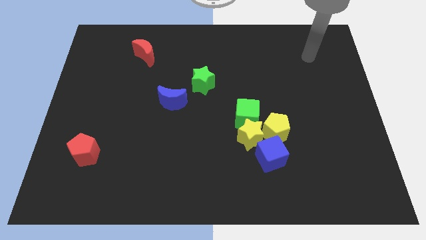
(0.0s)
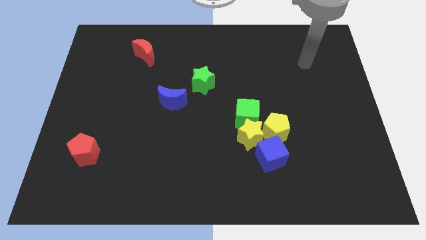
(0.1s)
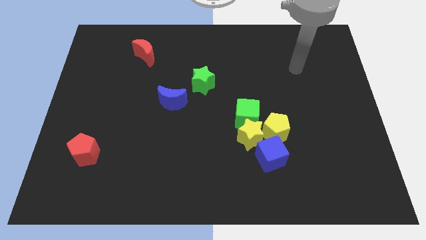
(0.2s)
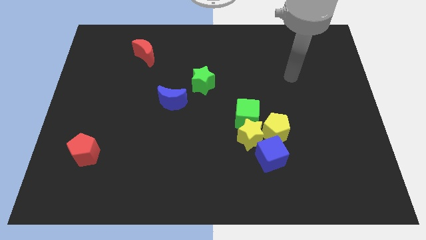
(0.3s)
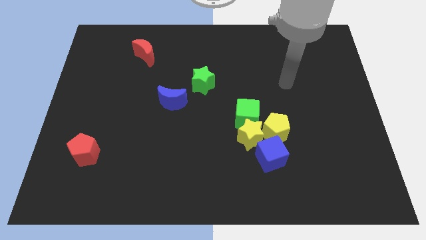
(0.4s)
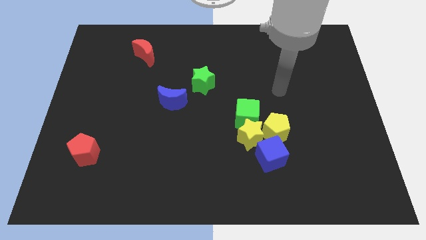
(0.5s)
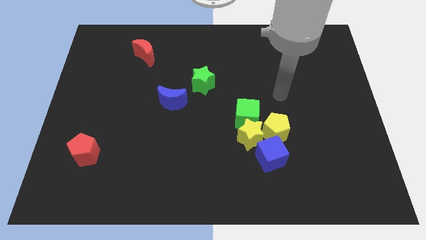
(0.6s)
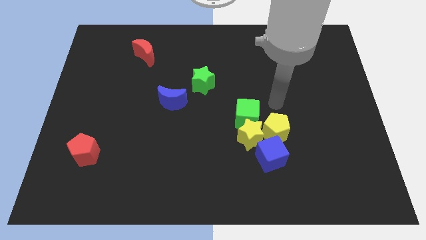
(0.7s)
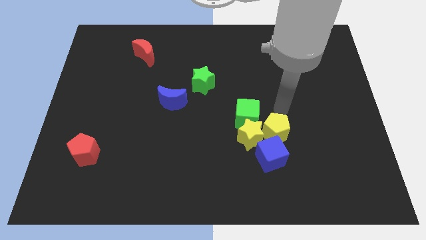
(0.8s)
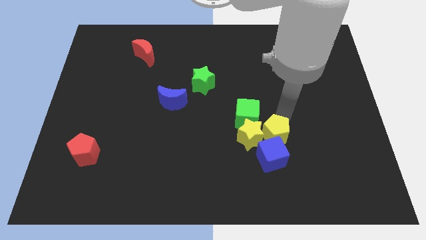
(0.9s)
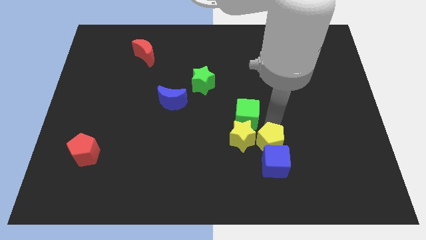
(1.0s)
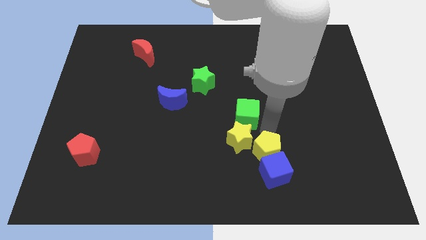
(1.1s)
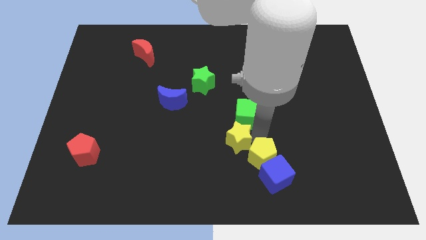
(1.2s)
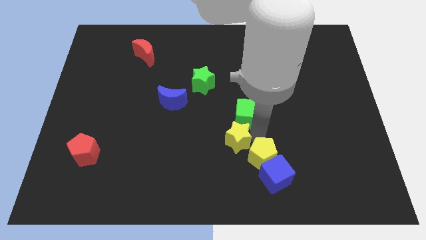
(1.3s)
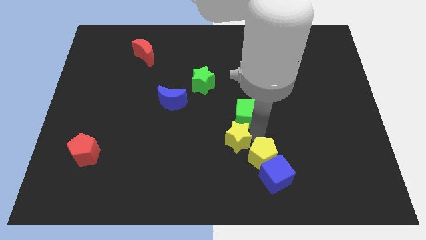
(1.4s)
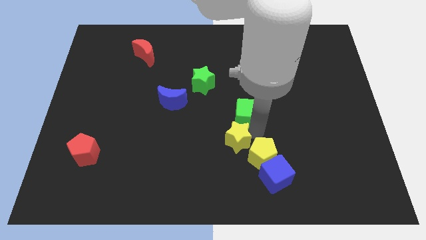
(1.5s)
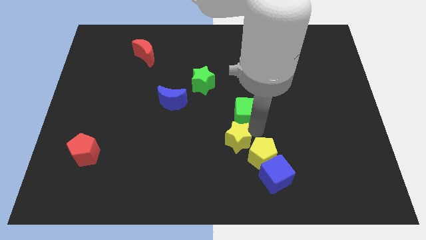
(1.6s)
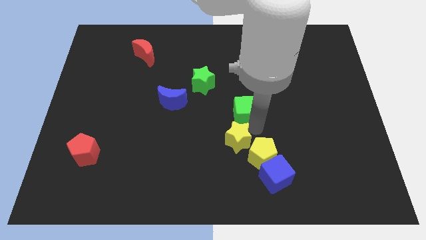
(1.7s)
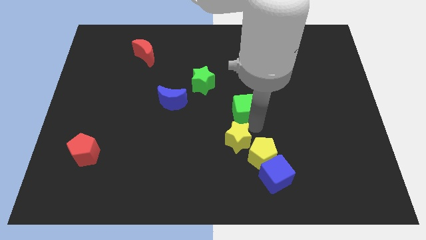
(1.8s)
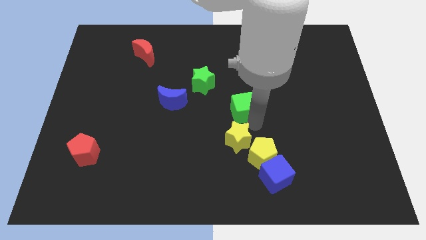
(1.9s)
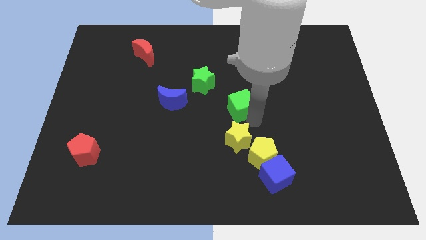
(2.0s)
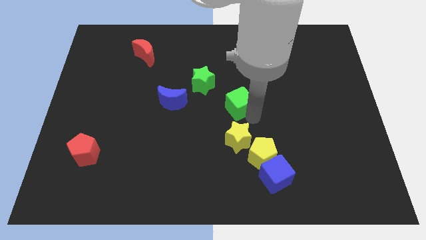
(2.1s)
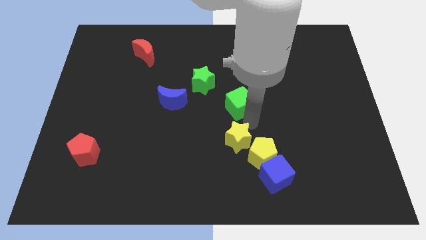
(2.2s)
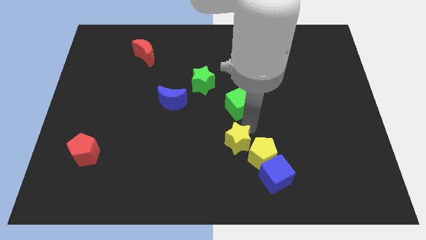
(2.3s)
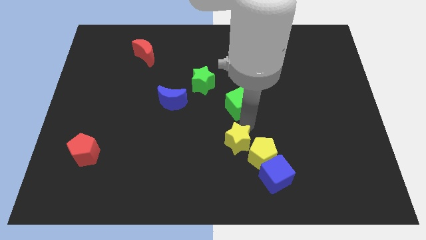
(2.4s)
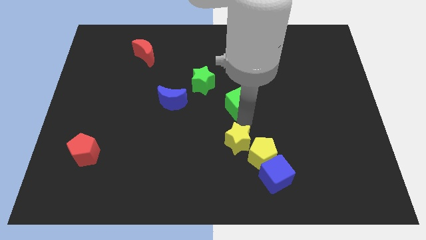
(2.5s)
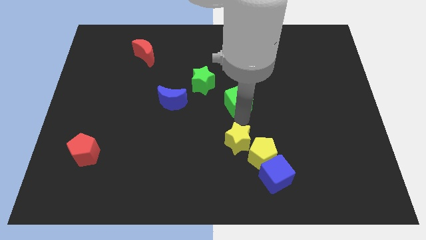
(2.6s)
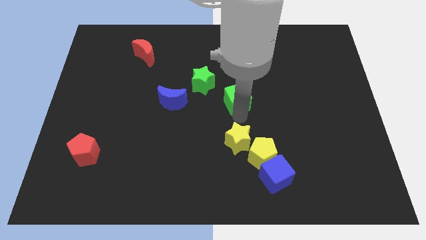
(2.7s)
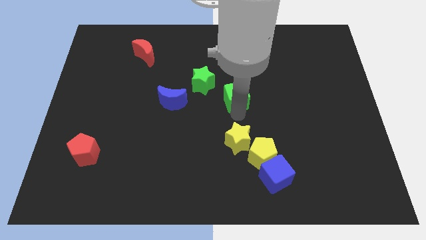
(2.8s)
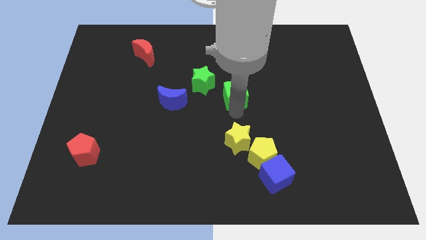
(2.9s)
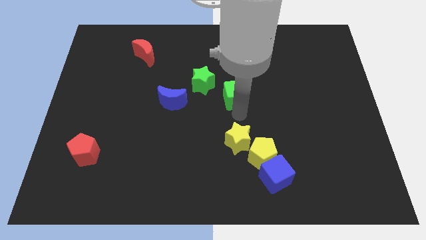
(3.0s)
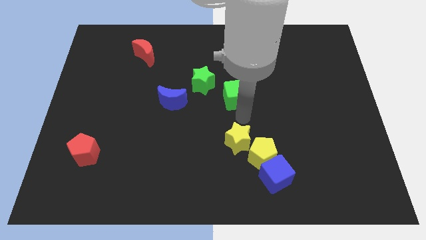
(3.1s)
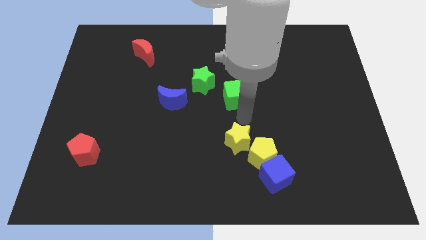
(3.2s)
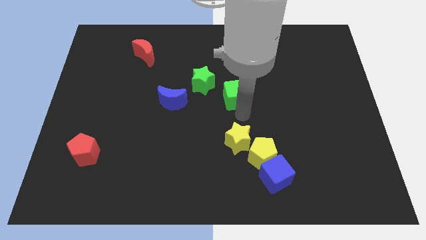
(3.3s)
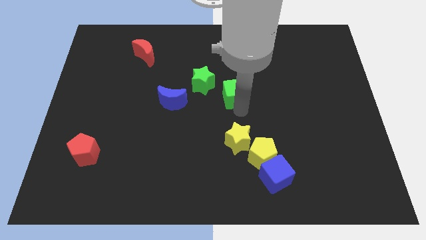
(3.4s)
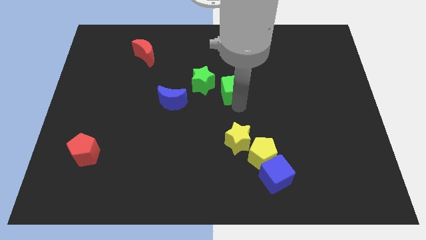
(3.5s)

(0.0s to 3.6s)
slightly push the green cube upwards and left diagonally

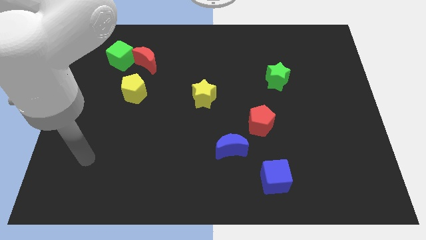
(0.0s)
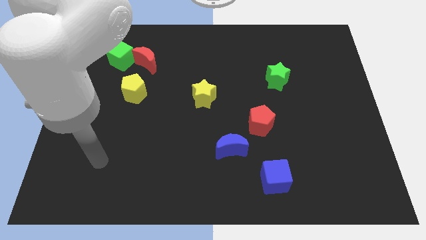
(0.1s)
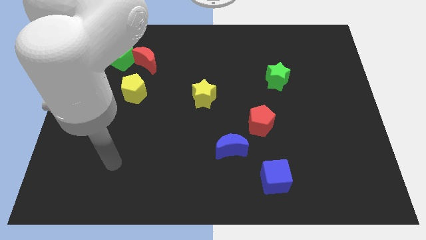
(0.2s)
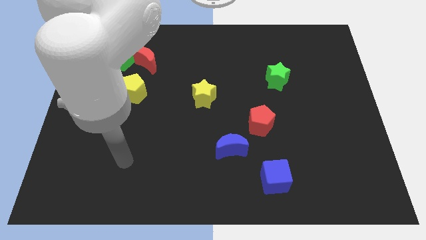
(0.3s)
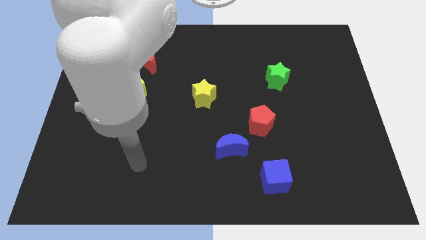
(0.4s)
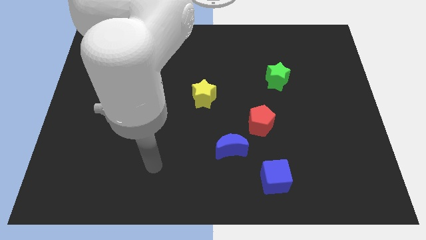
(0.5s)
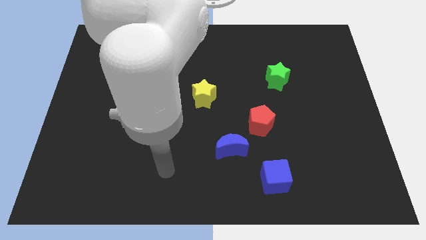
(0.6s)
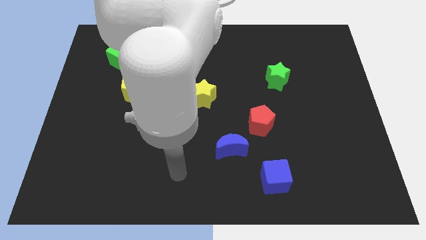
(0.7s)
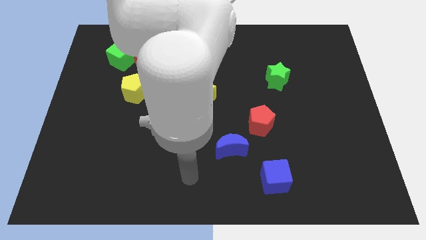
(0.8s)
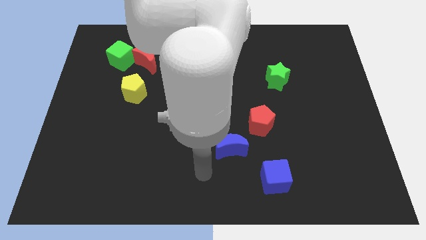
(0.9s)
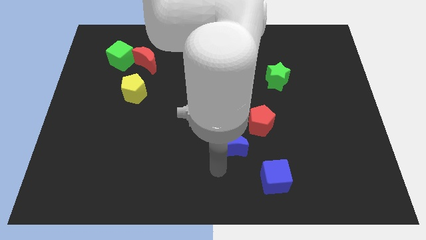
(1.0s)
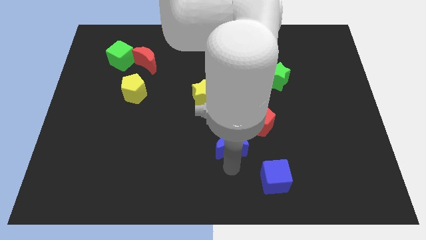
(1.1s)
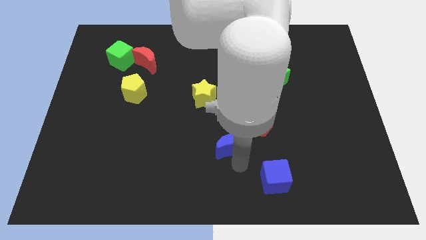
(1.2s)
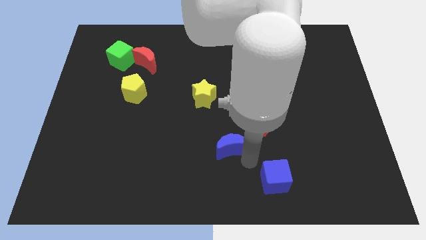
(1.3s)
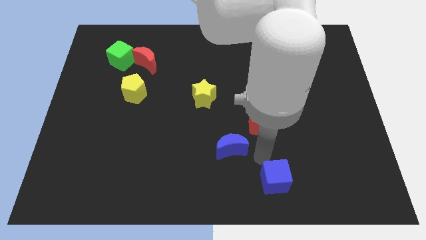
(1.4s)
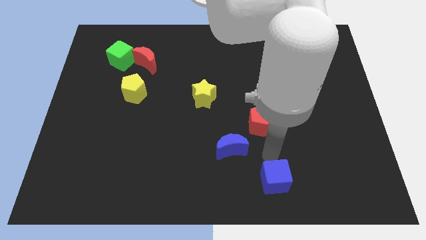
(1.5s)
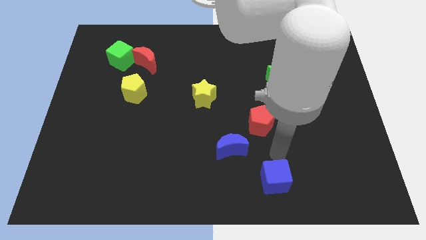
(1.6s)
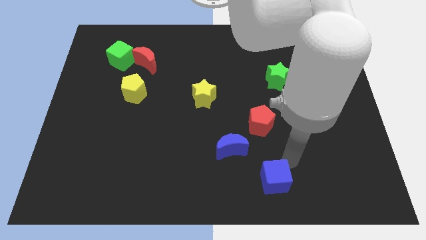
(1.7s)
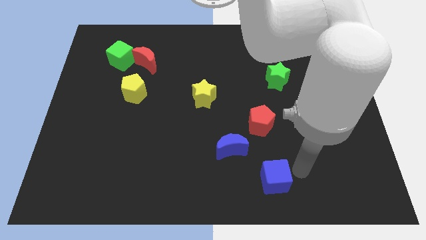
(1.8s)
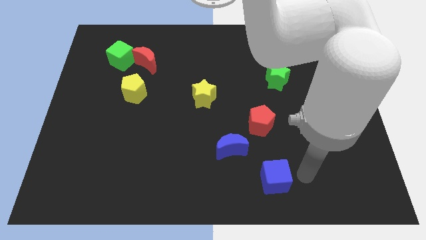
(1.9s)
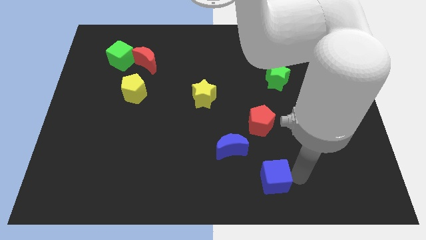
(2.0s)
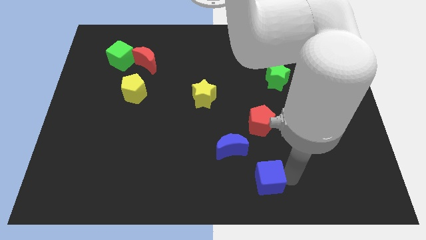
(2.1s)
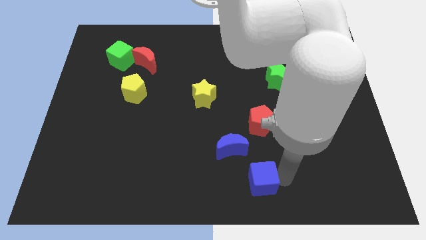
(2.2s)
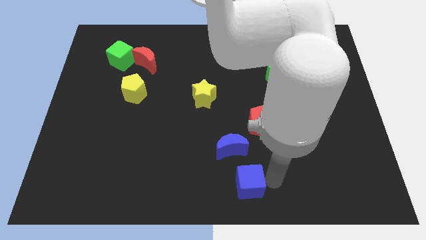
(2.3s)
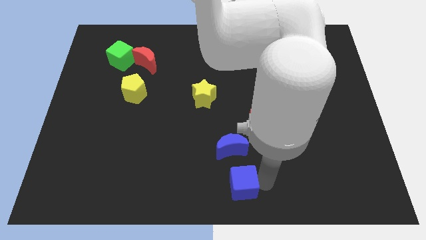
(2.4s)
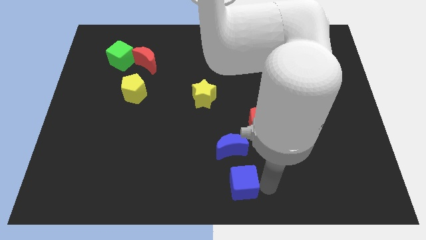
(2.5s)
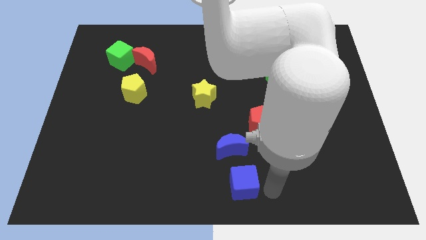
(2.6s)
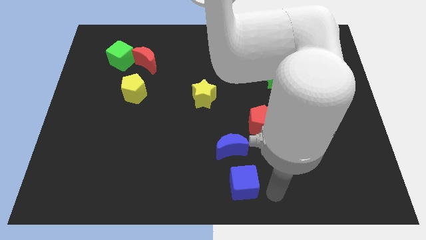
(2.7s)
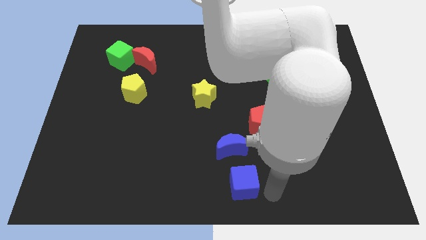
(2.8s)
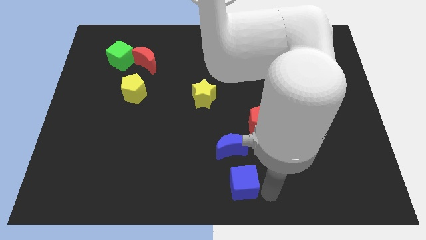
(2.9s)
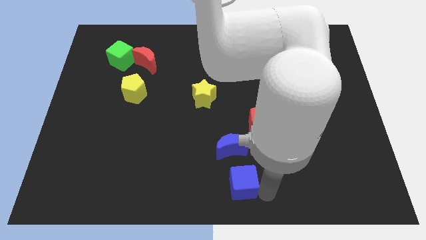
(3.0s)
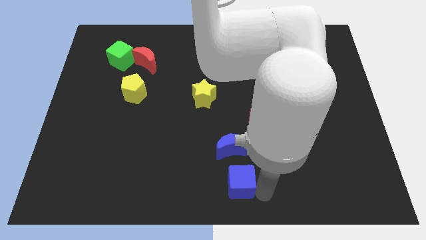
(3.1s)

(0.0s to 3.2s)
push the blue cube left slightly

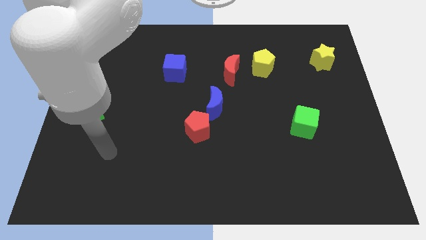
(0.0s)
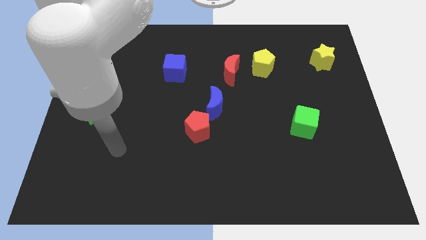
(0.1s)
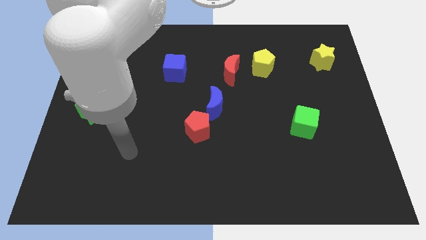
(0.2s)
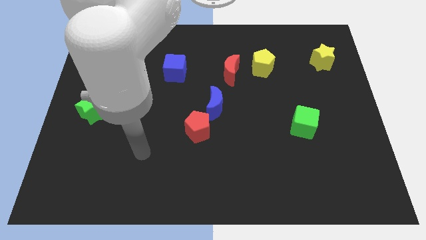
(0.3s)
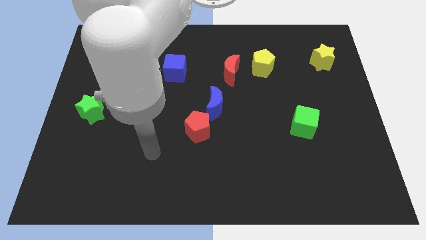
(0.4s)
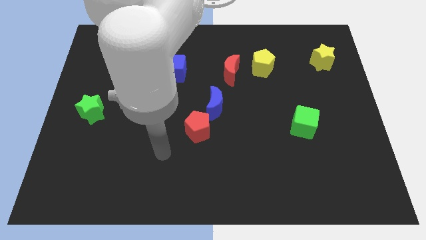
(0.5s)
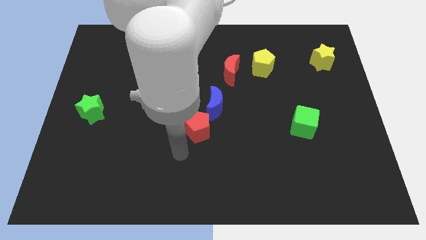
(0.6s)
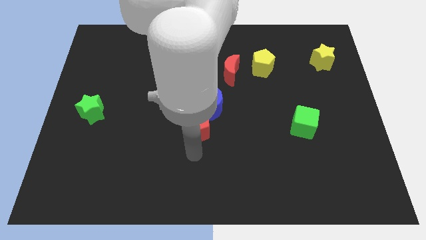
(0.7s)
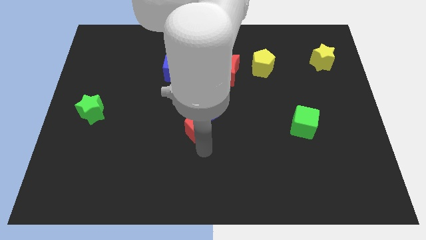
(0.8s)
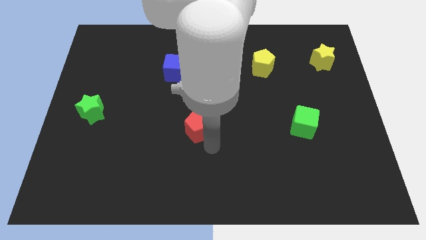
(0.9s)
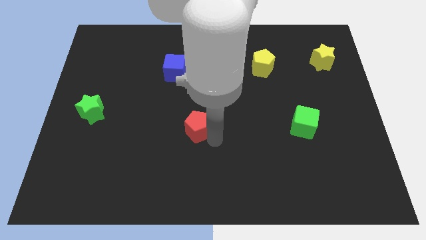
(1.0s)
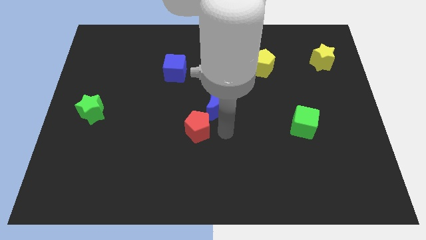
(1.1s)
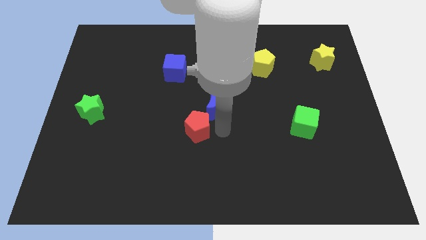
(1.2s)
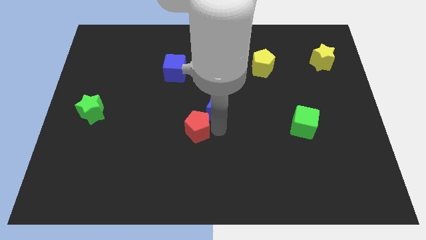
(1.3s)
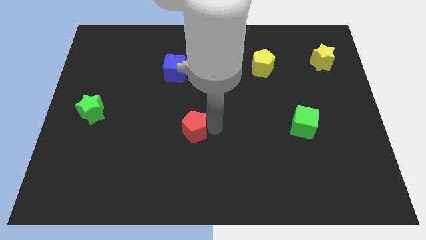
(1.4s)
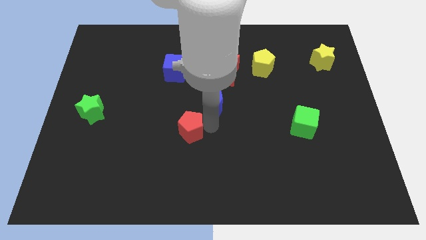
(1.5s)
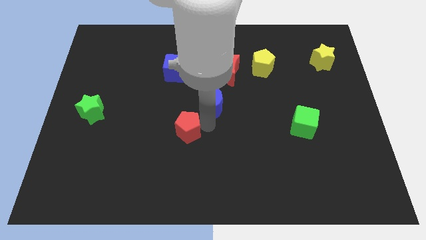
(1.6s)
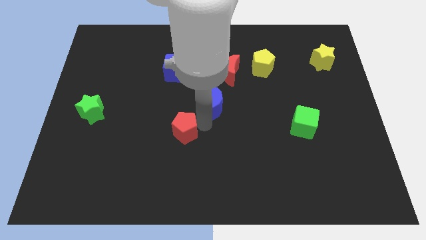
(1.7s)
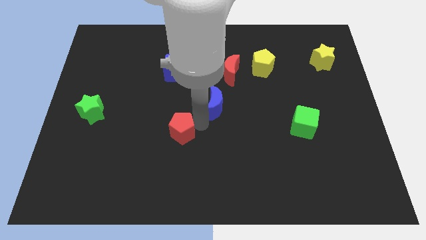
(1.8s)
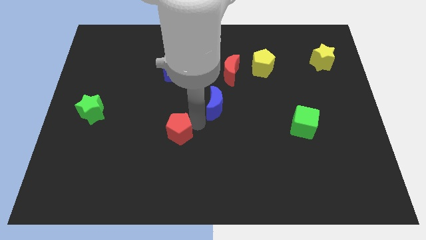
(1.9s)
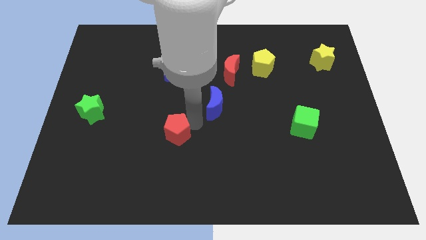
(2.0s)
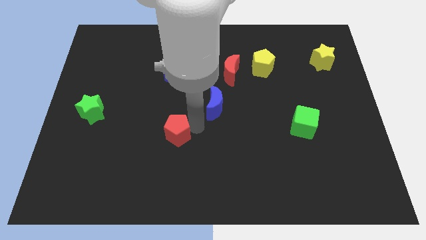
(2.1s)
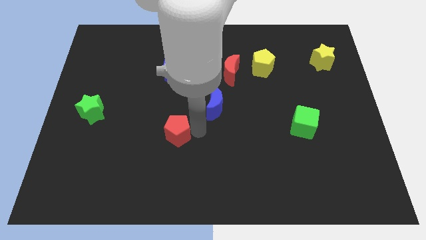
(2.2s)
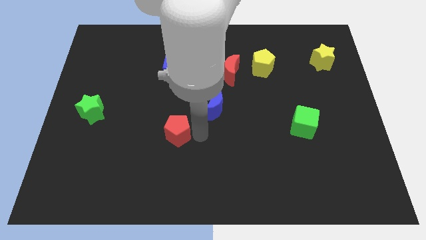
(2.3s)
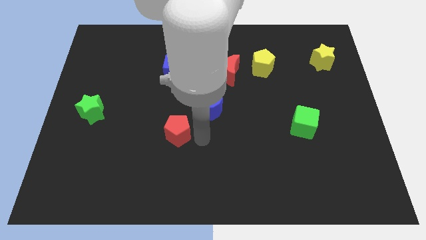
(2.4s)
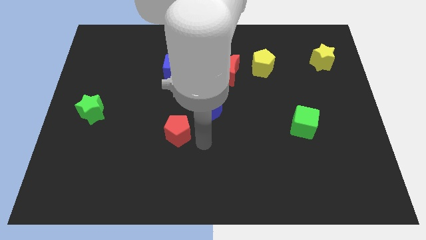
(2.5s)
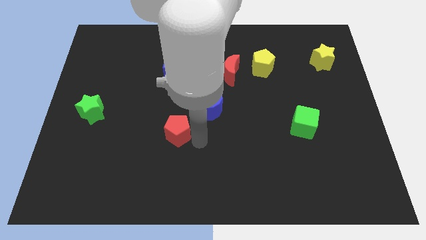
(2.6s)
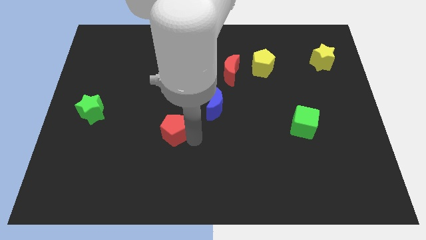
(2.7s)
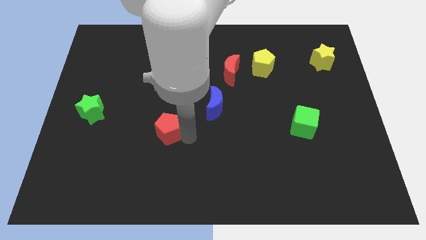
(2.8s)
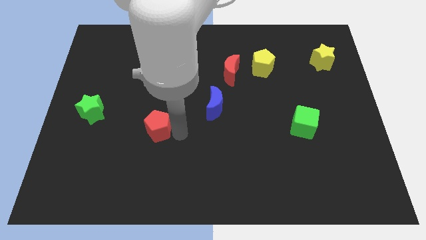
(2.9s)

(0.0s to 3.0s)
push the red pentagon a little to the left
